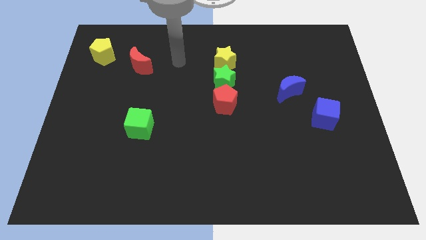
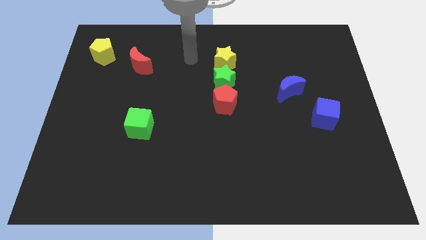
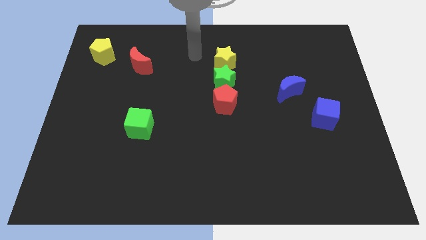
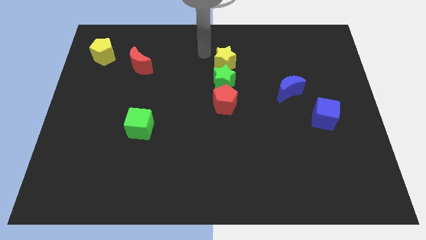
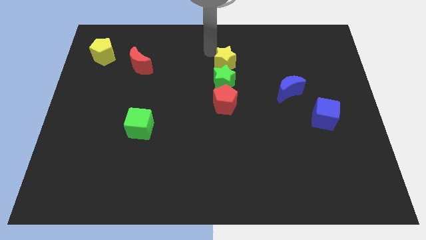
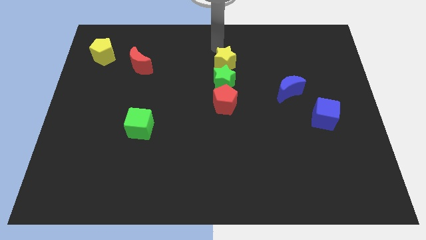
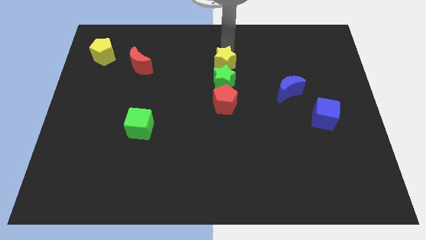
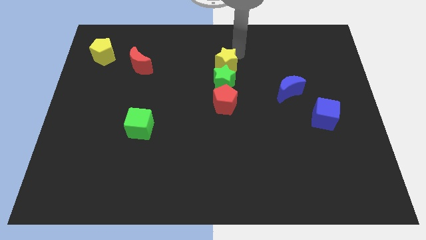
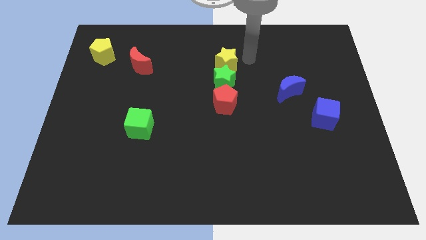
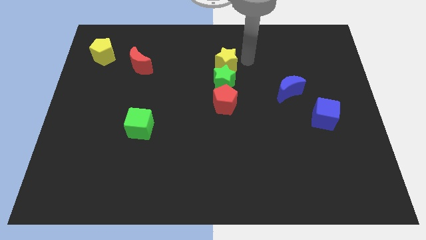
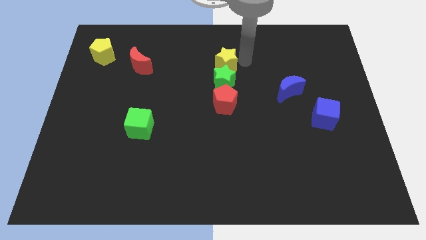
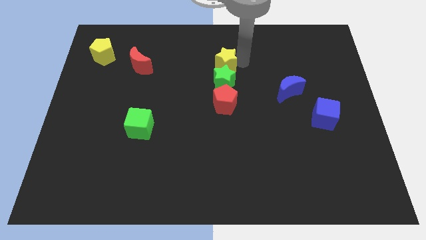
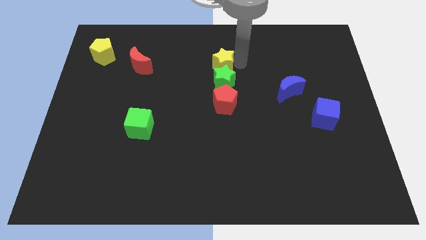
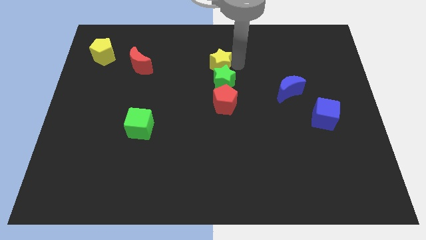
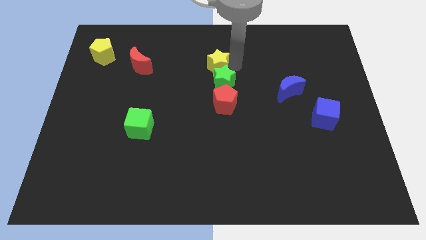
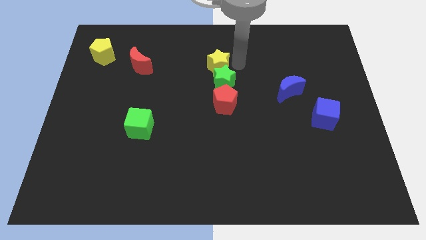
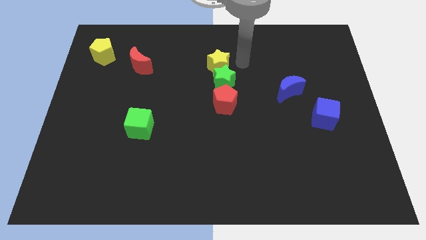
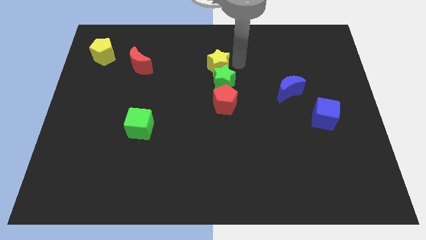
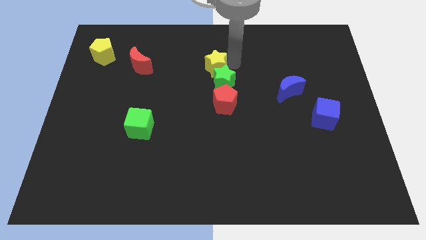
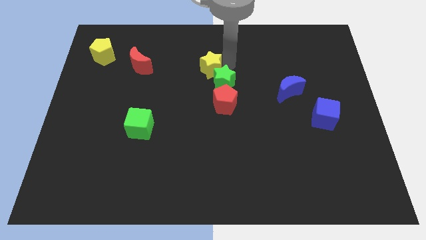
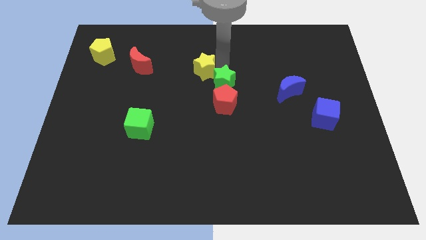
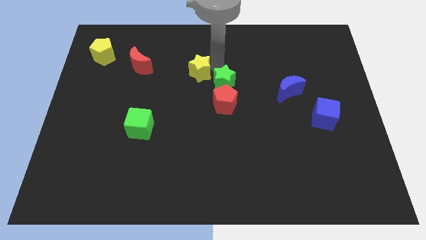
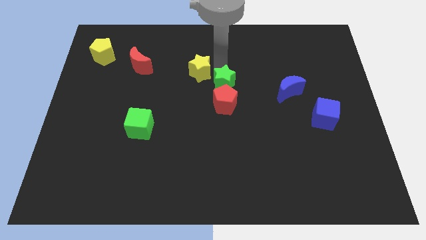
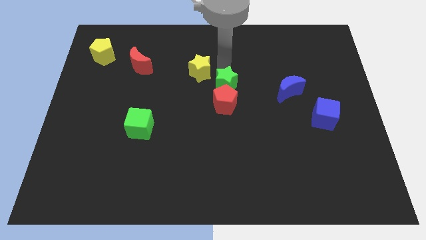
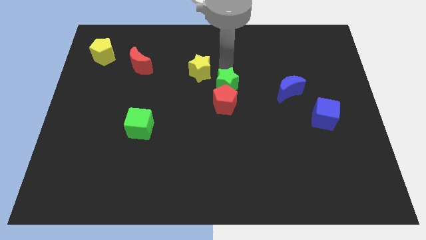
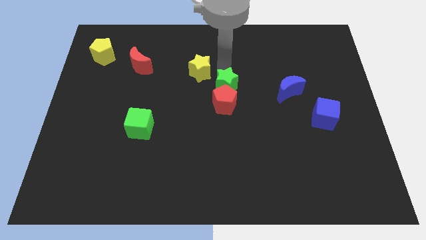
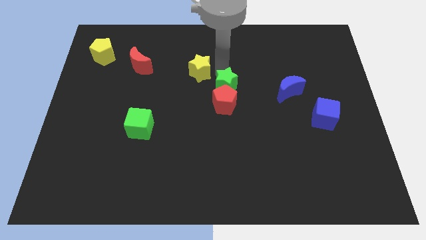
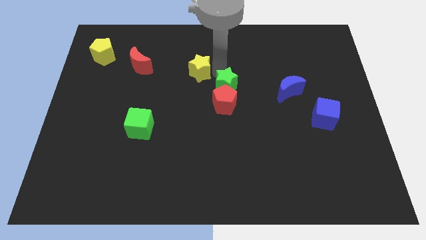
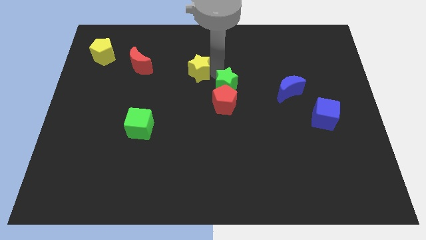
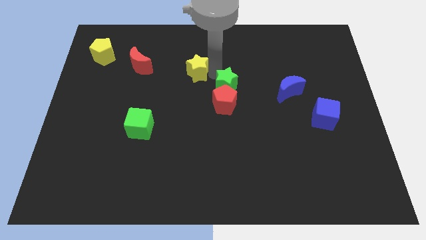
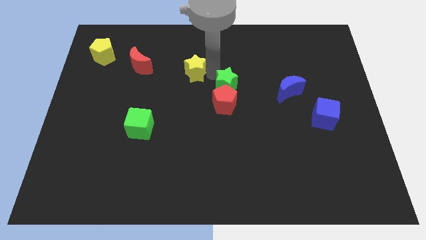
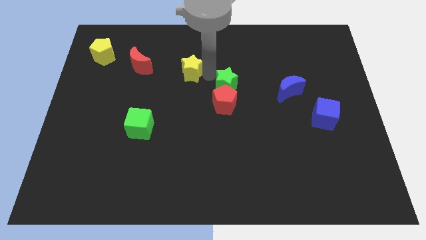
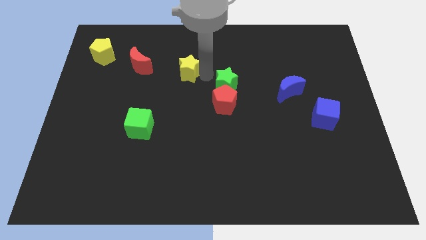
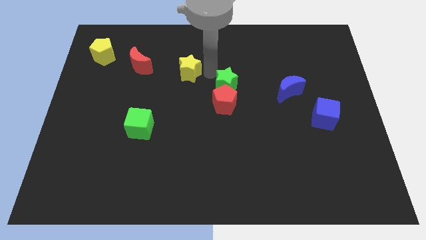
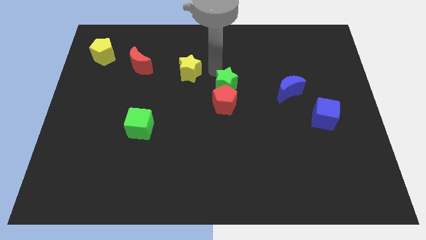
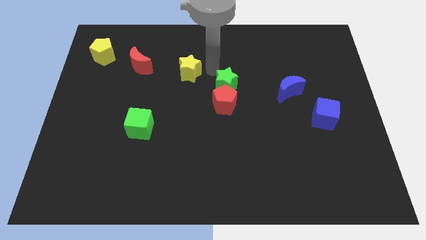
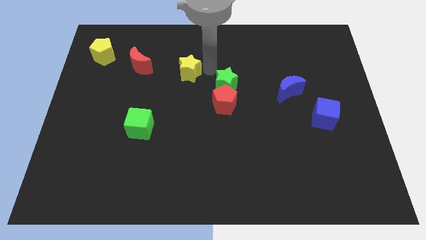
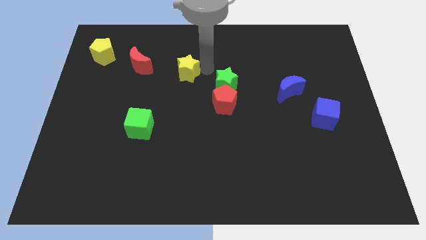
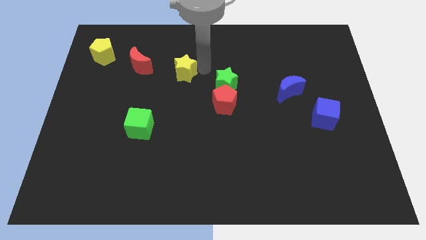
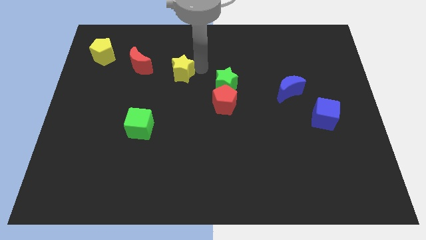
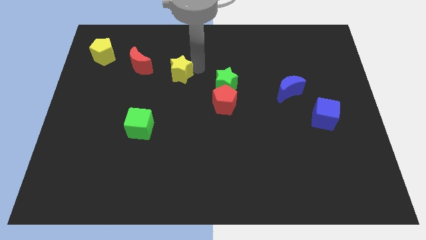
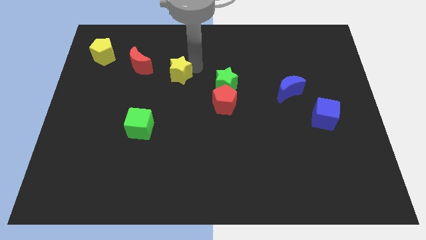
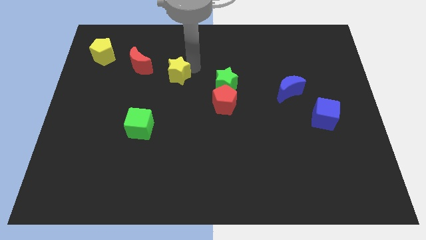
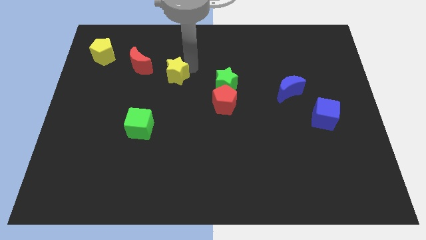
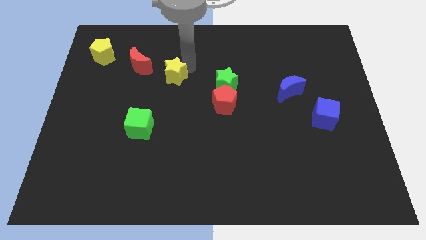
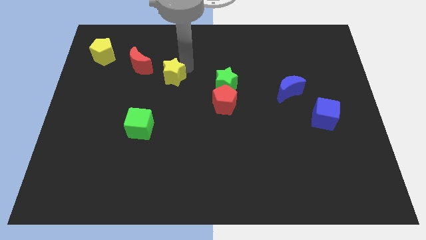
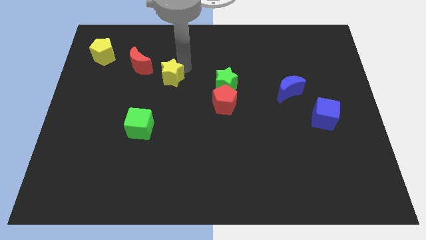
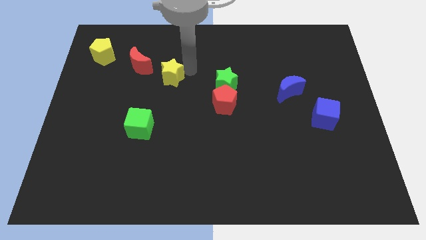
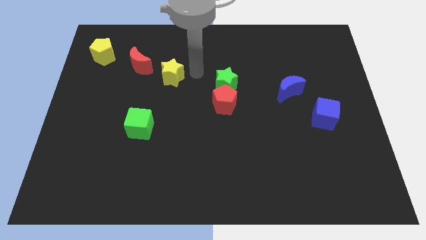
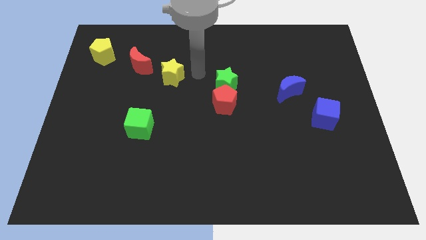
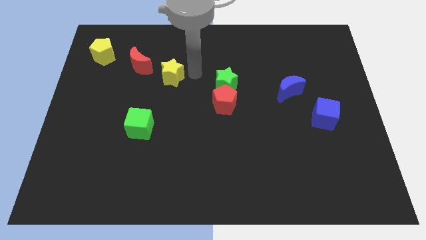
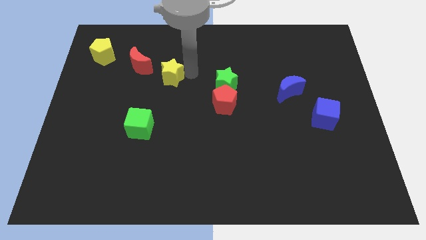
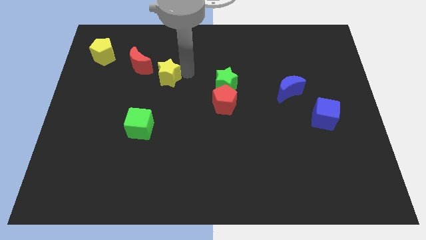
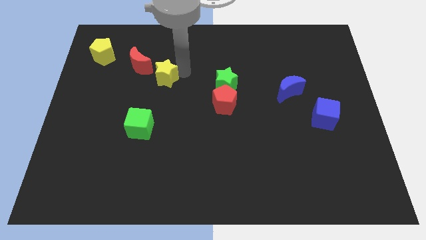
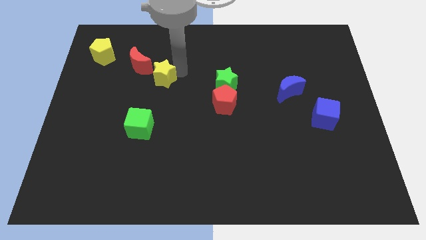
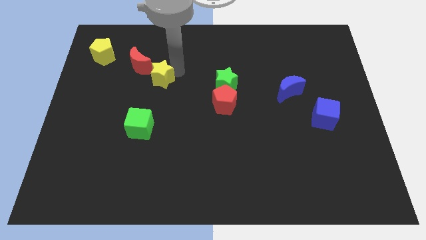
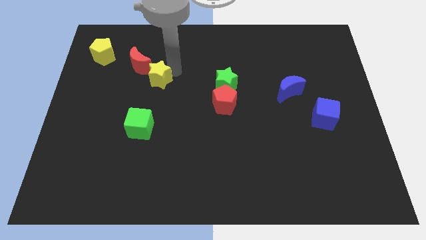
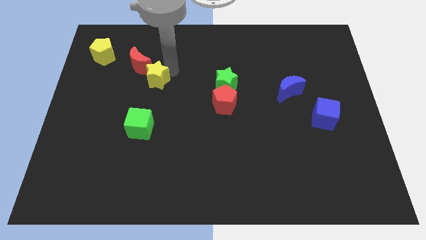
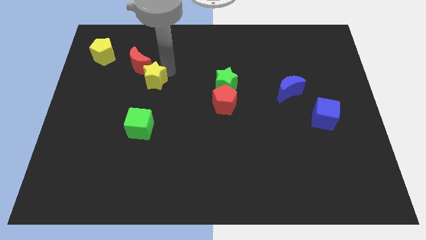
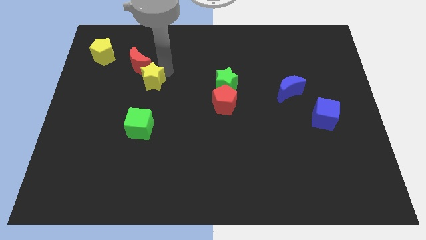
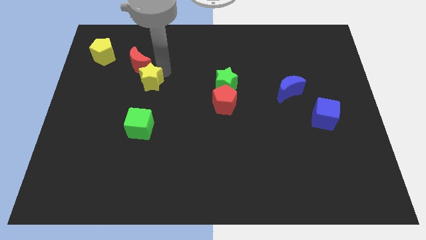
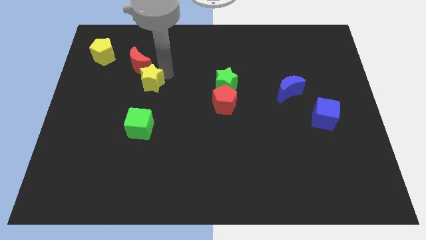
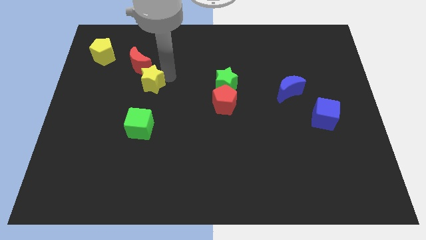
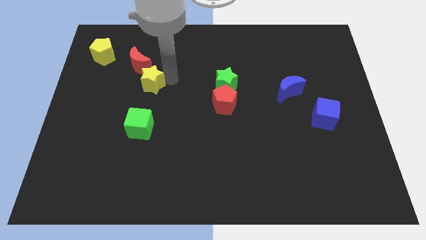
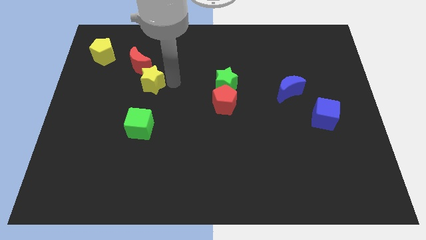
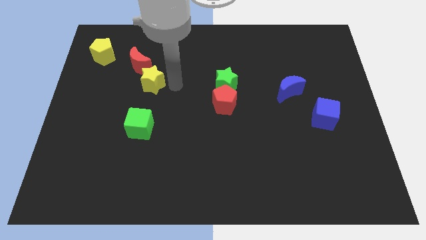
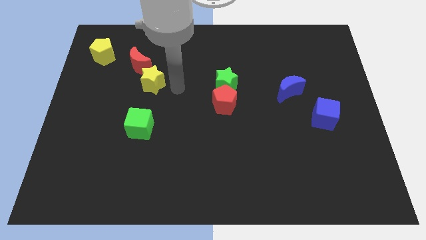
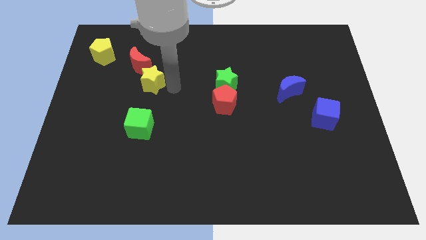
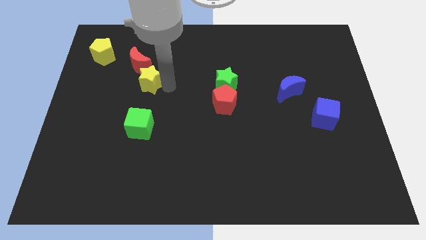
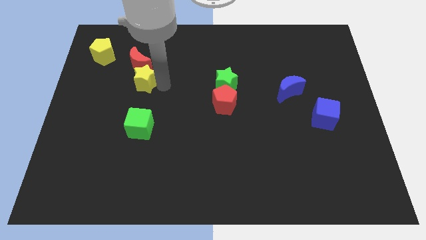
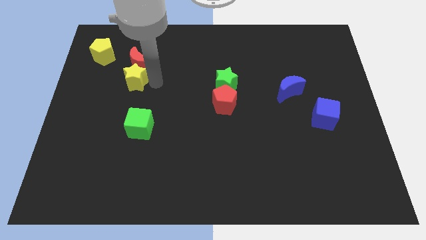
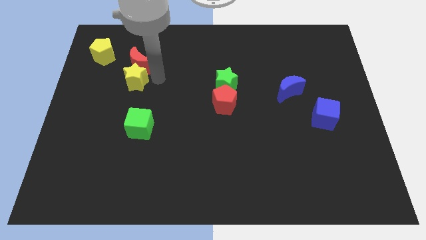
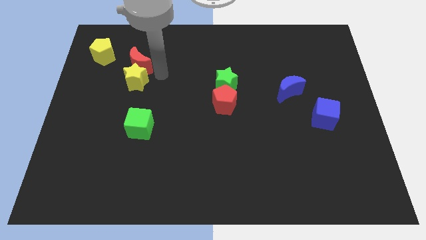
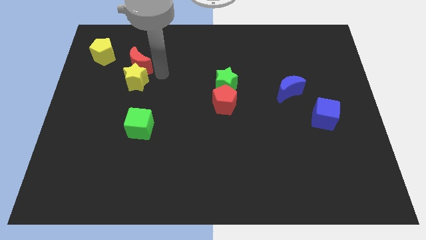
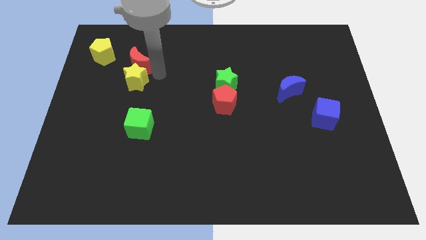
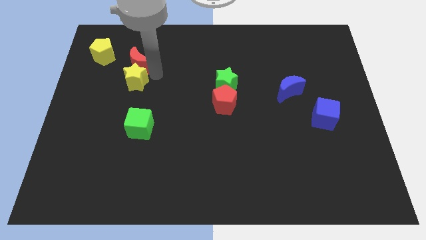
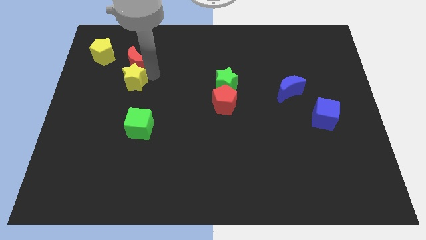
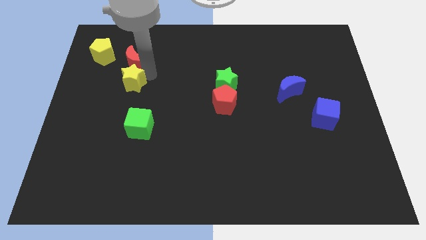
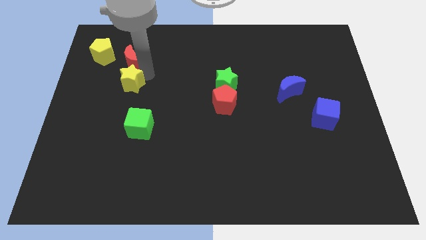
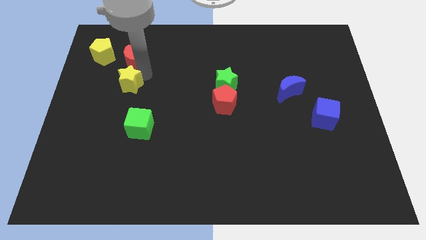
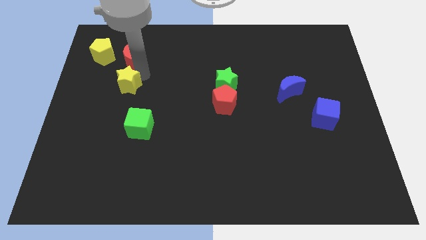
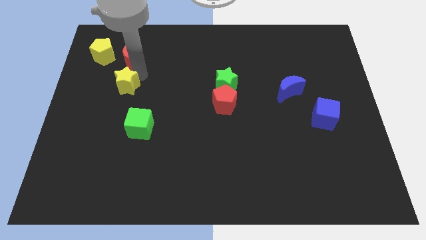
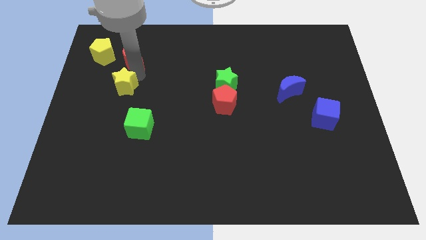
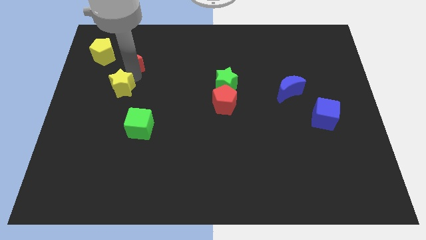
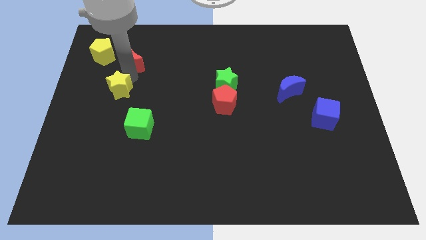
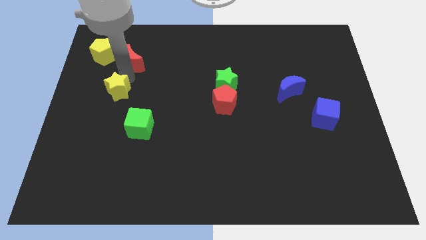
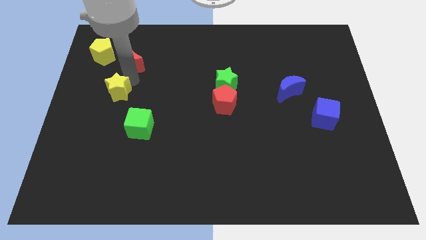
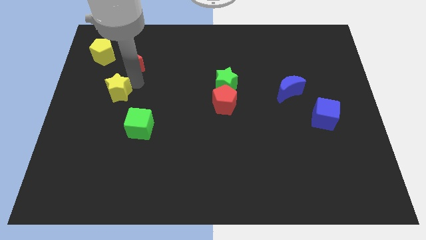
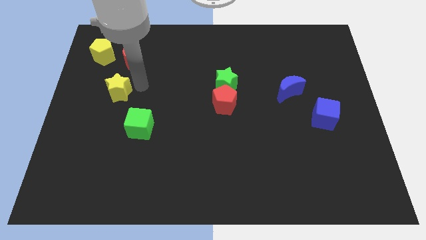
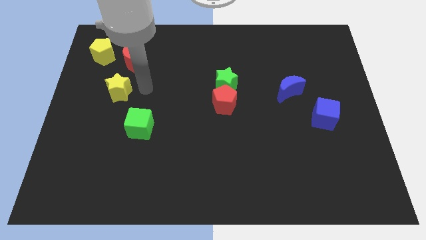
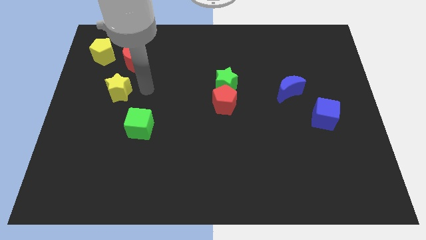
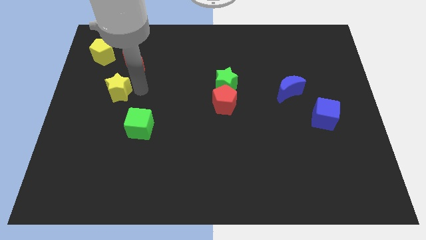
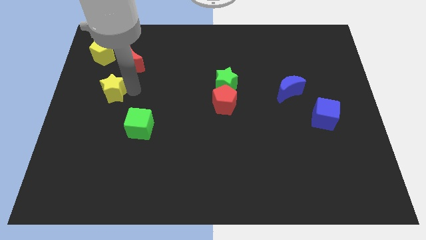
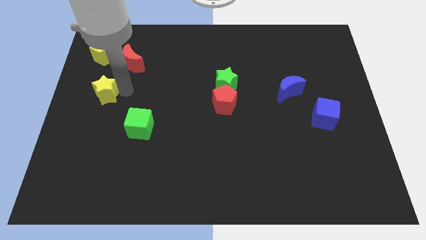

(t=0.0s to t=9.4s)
push the yellow star to the center left
